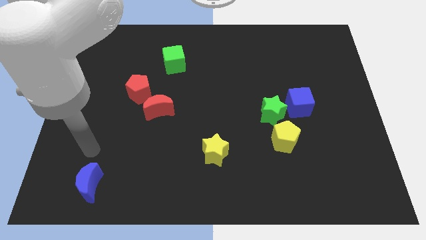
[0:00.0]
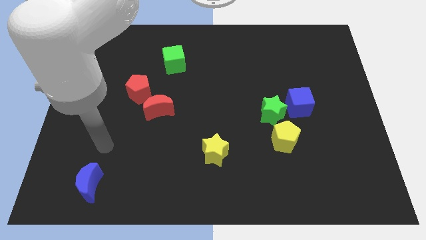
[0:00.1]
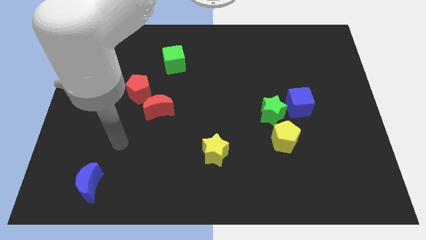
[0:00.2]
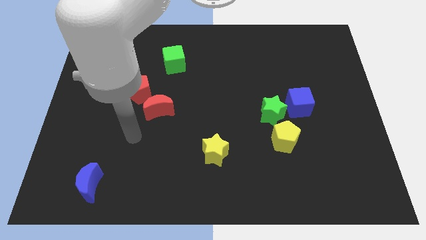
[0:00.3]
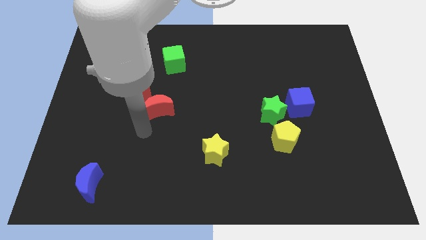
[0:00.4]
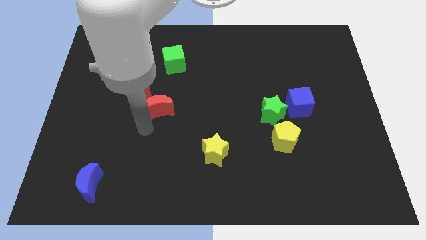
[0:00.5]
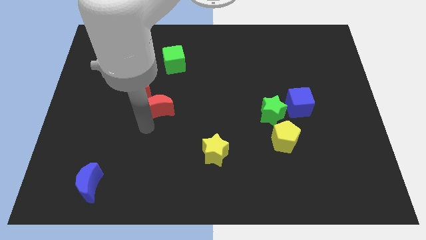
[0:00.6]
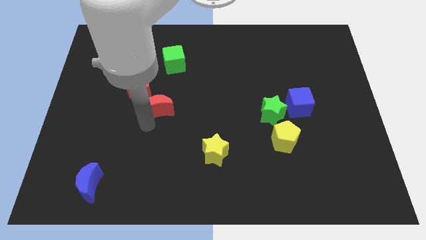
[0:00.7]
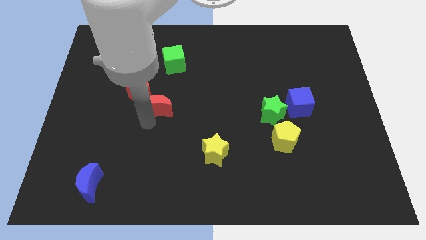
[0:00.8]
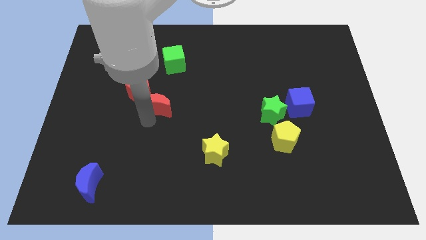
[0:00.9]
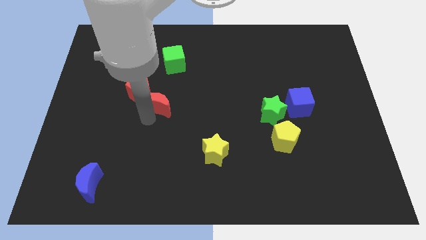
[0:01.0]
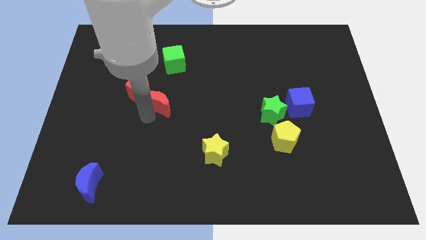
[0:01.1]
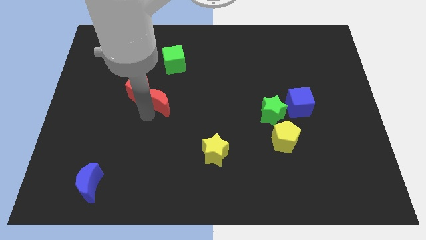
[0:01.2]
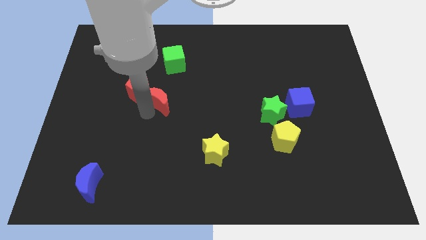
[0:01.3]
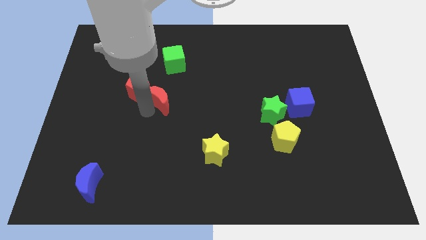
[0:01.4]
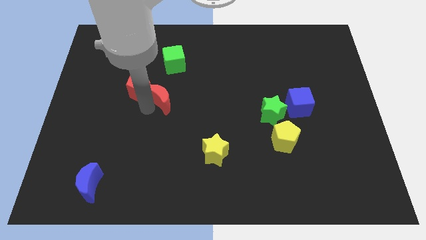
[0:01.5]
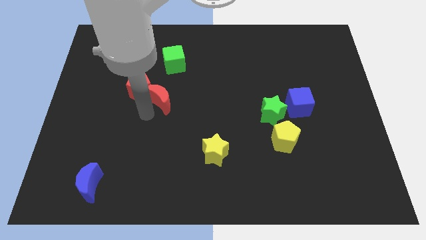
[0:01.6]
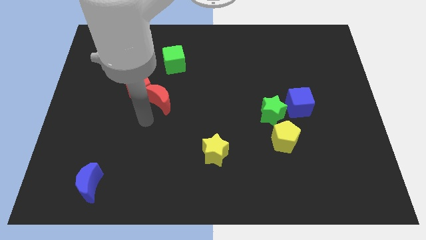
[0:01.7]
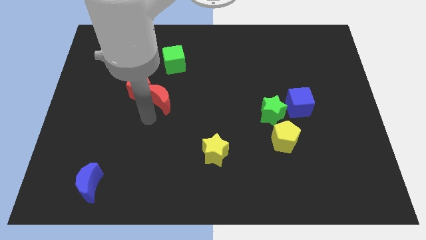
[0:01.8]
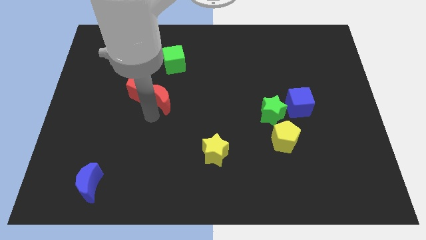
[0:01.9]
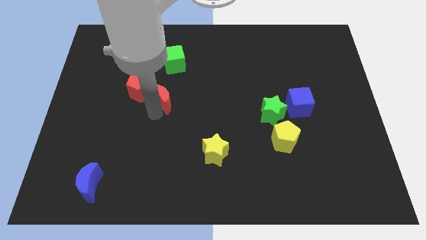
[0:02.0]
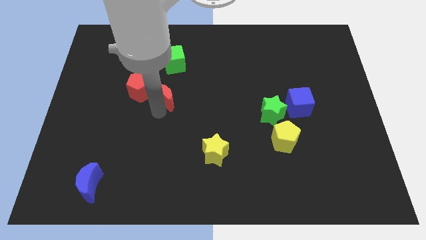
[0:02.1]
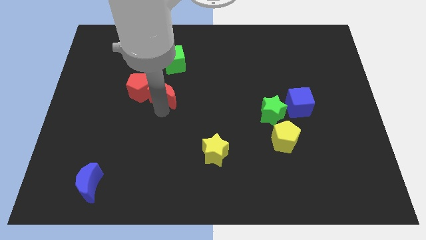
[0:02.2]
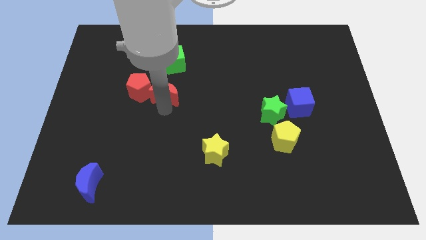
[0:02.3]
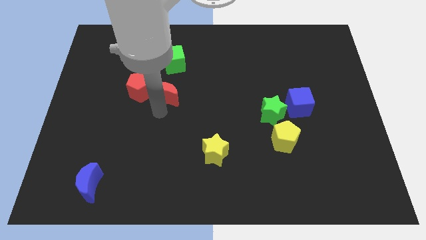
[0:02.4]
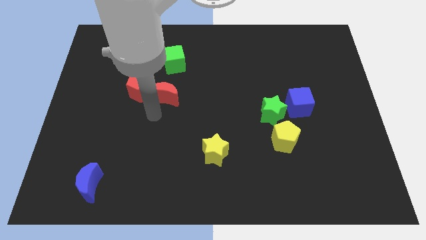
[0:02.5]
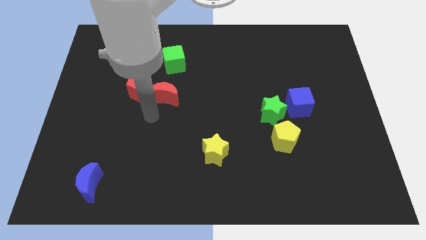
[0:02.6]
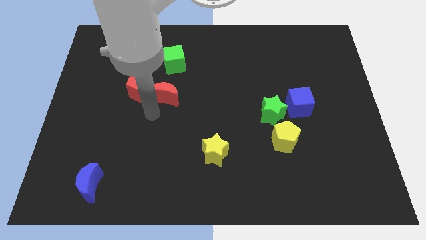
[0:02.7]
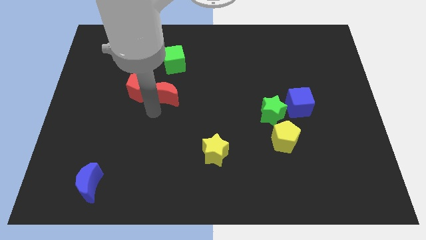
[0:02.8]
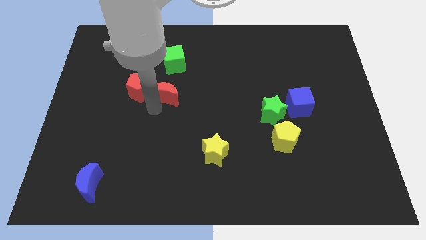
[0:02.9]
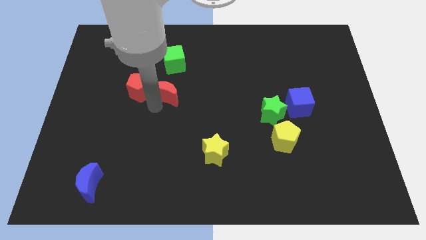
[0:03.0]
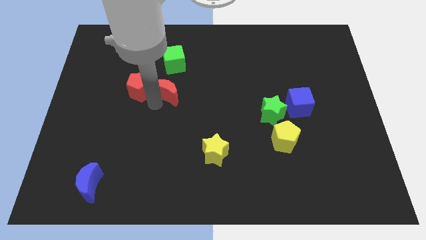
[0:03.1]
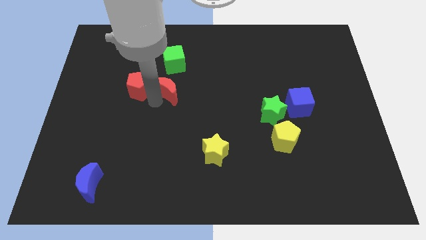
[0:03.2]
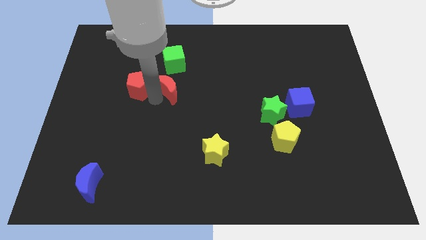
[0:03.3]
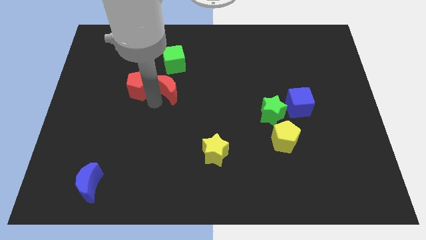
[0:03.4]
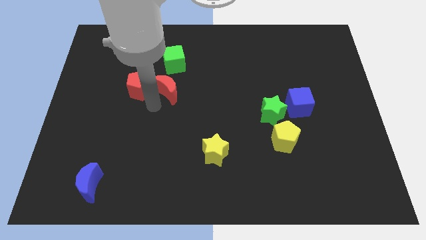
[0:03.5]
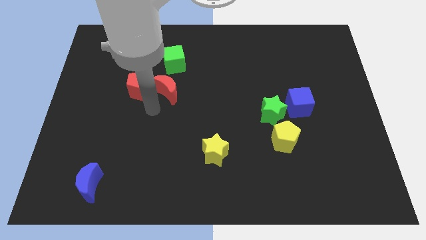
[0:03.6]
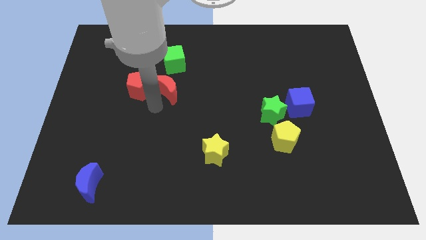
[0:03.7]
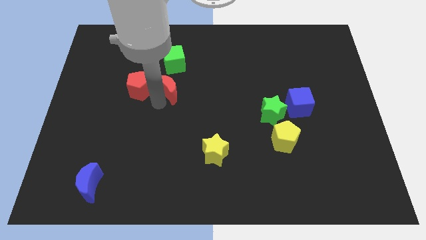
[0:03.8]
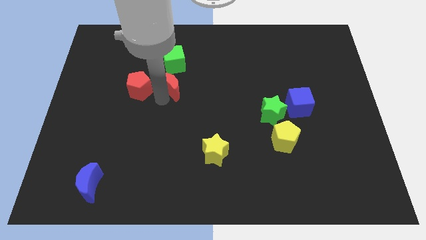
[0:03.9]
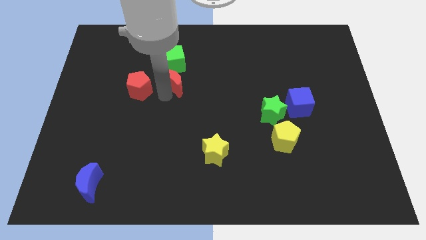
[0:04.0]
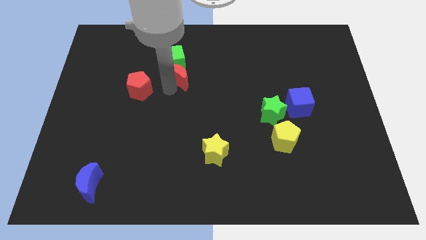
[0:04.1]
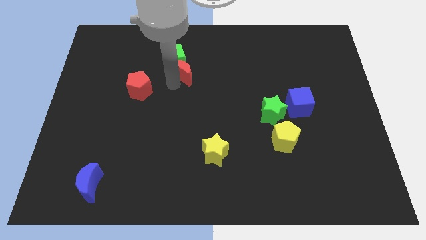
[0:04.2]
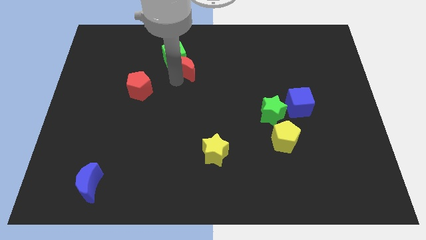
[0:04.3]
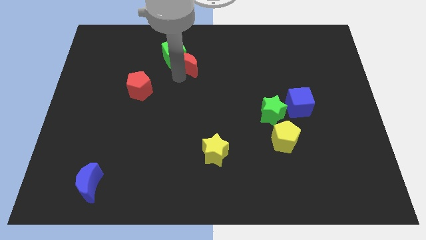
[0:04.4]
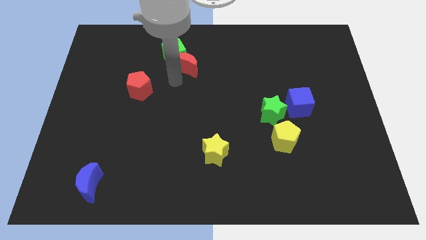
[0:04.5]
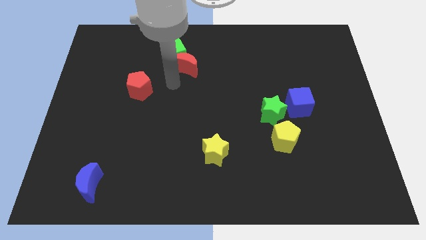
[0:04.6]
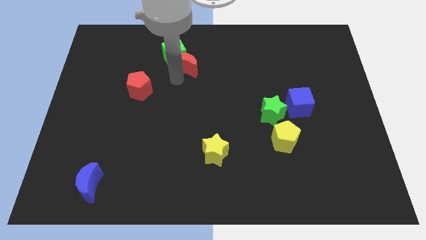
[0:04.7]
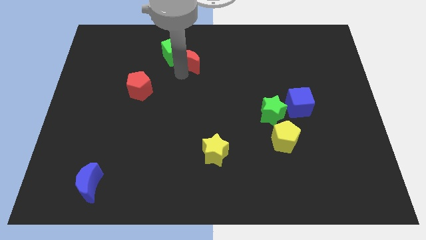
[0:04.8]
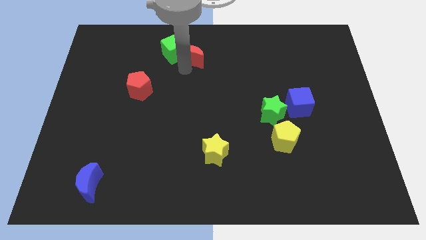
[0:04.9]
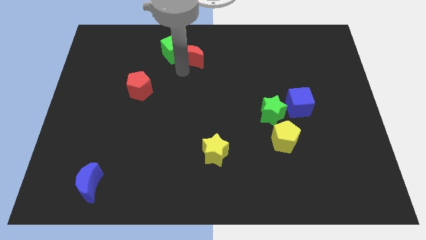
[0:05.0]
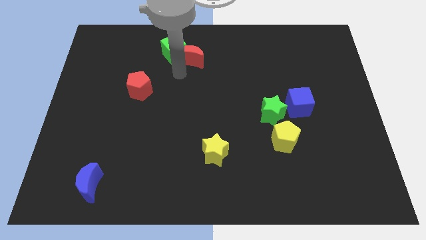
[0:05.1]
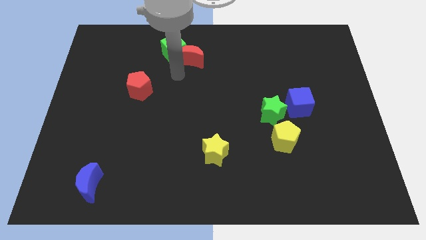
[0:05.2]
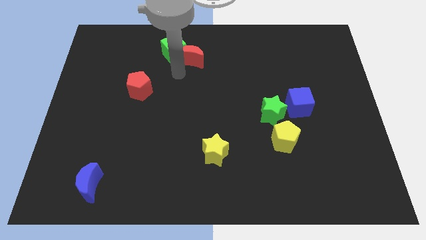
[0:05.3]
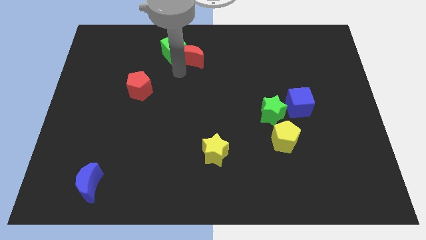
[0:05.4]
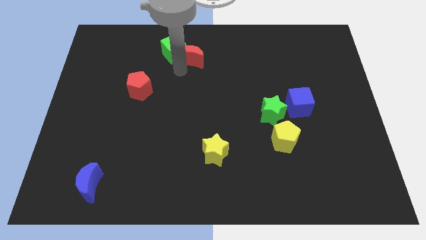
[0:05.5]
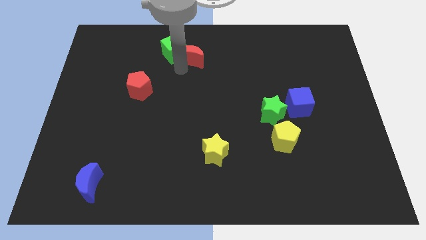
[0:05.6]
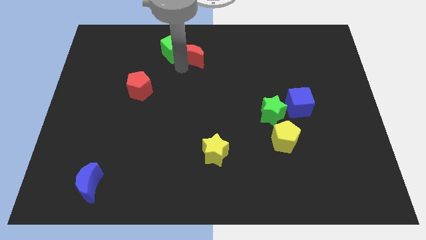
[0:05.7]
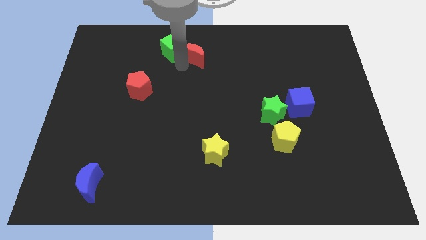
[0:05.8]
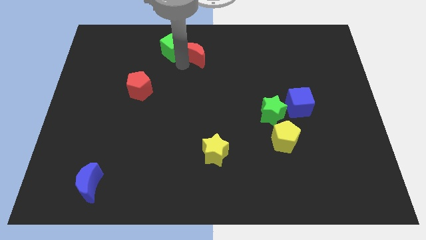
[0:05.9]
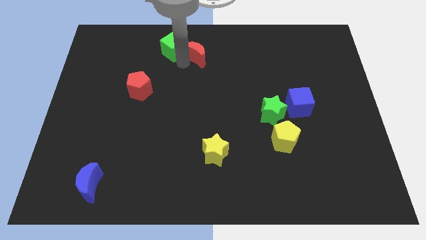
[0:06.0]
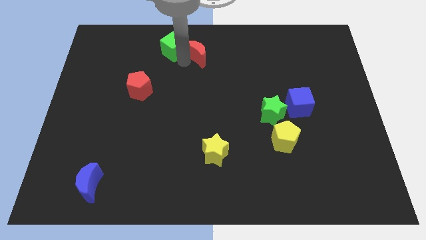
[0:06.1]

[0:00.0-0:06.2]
put the red moon to the top
